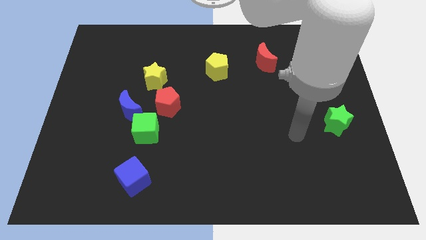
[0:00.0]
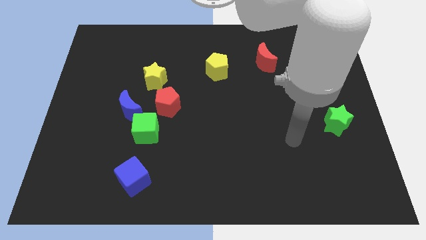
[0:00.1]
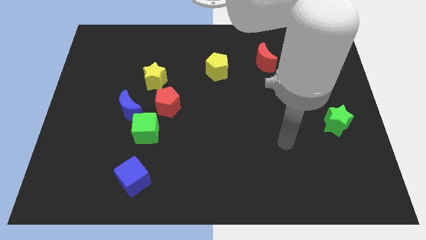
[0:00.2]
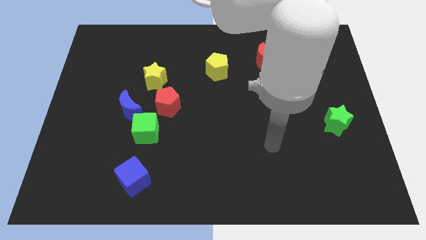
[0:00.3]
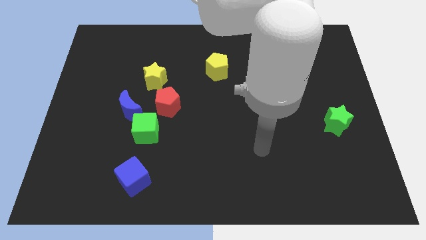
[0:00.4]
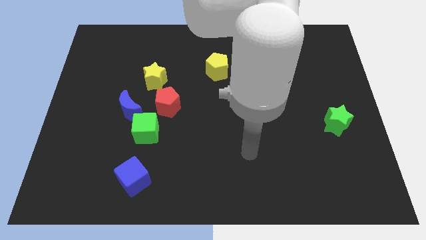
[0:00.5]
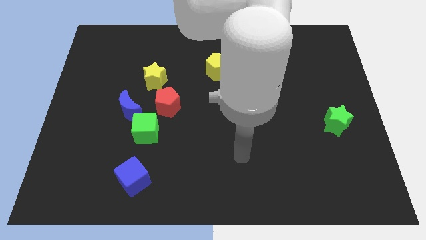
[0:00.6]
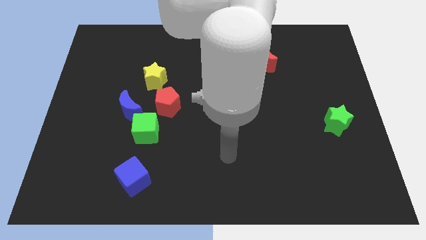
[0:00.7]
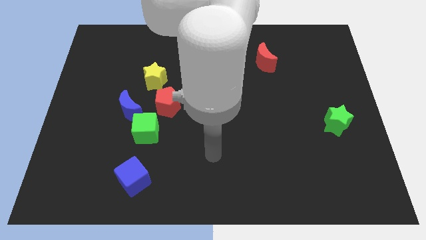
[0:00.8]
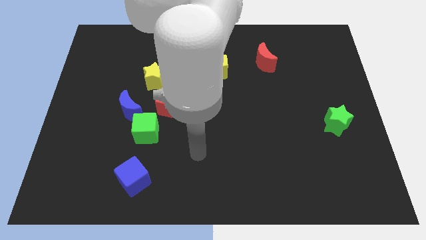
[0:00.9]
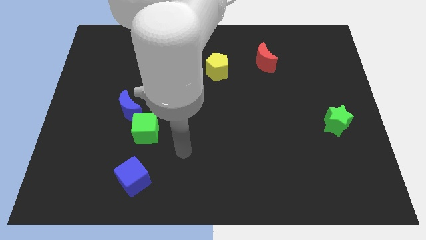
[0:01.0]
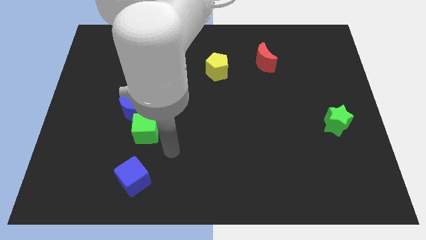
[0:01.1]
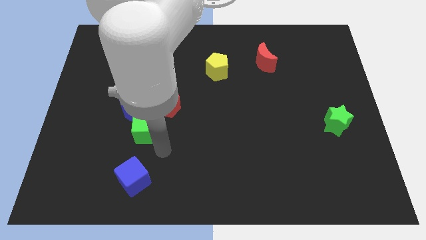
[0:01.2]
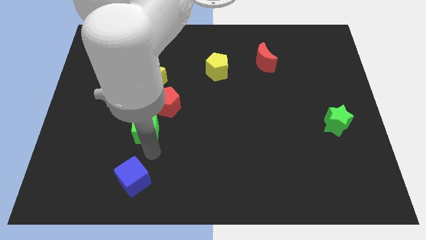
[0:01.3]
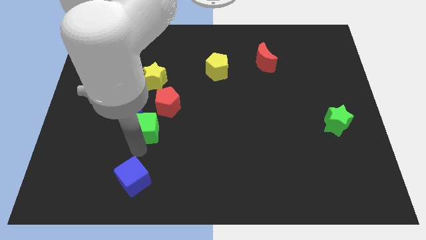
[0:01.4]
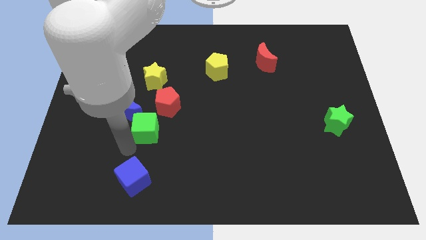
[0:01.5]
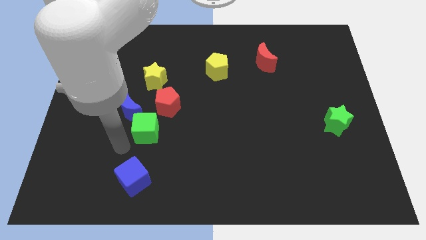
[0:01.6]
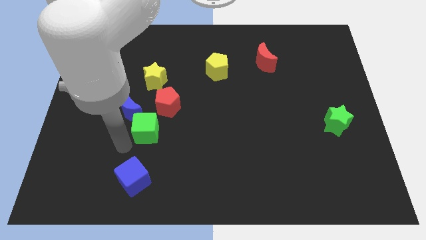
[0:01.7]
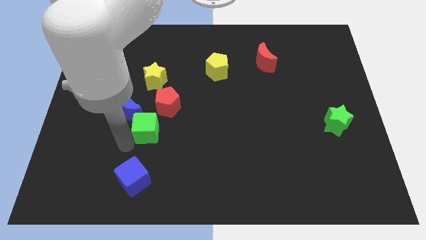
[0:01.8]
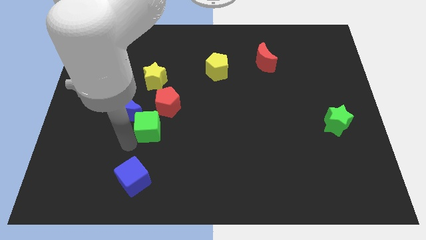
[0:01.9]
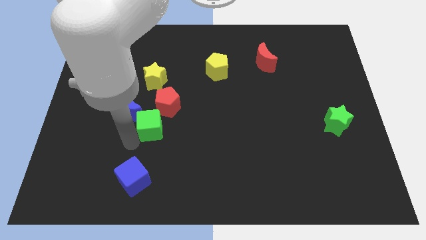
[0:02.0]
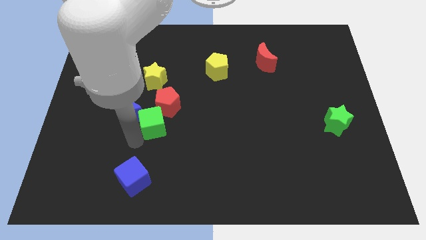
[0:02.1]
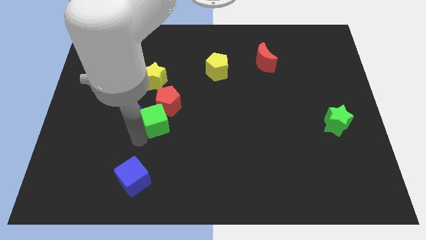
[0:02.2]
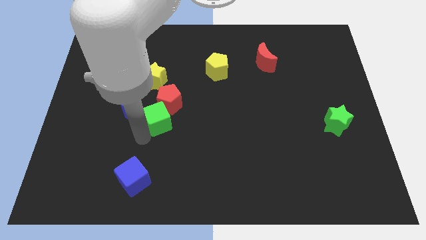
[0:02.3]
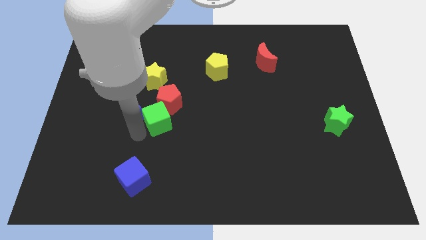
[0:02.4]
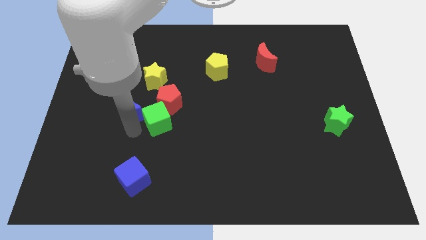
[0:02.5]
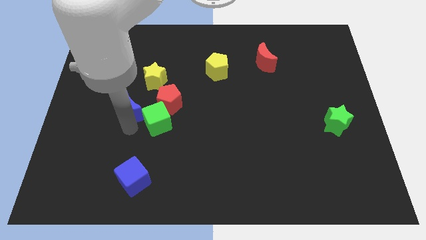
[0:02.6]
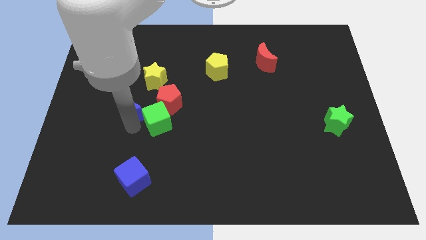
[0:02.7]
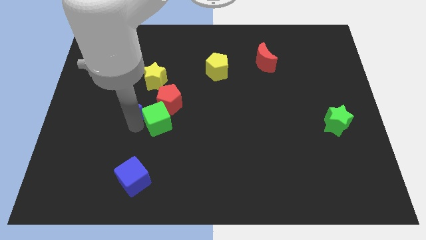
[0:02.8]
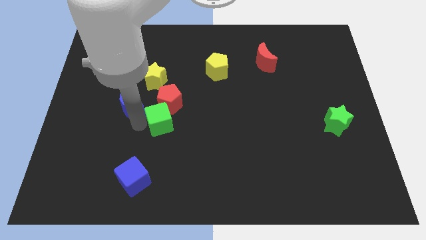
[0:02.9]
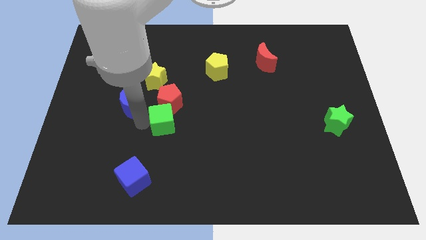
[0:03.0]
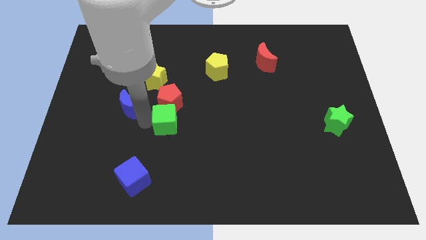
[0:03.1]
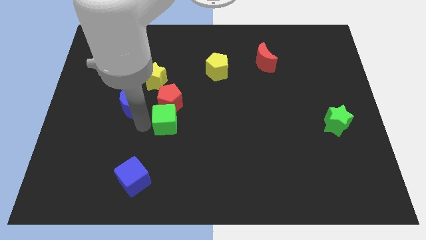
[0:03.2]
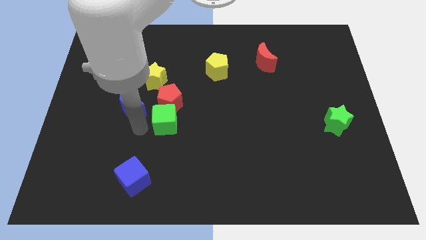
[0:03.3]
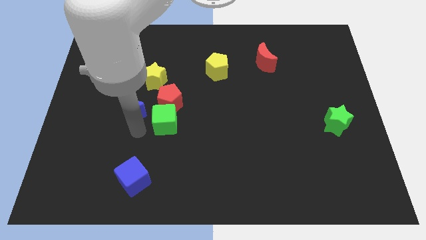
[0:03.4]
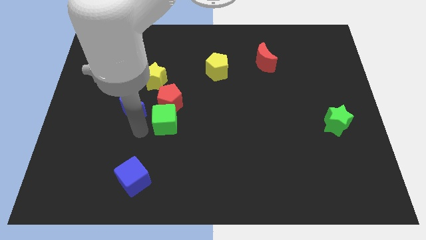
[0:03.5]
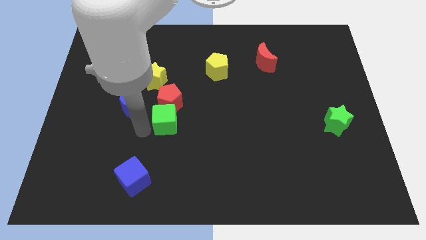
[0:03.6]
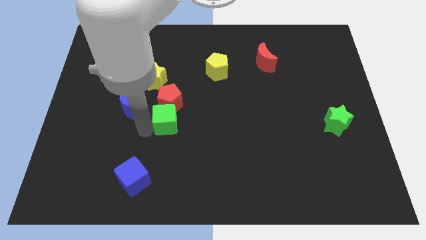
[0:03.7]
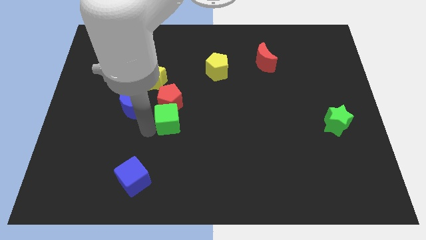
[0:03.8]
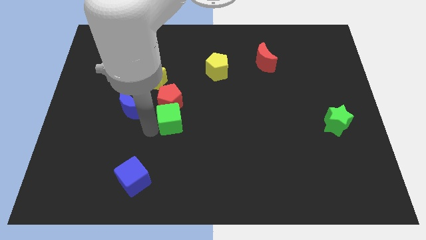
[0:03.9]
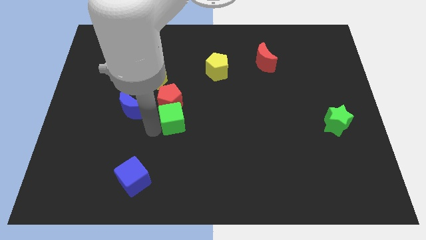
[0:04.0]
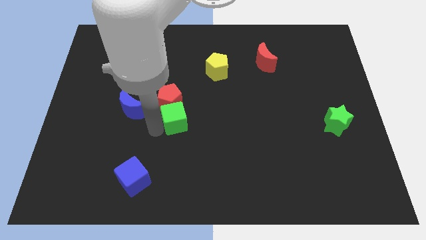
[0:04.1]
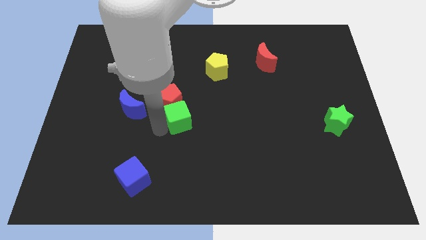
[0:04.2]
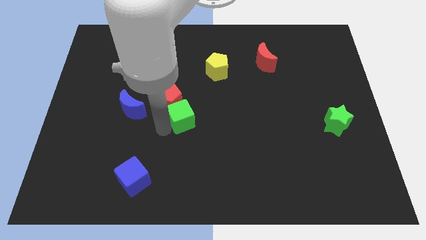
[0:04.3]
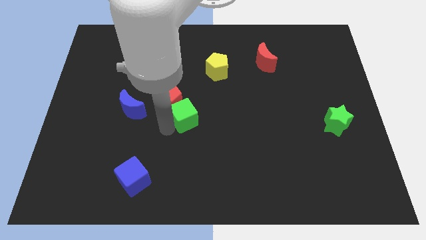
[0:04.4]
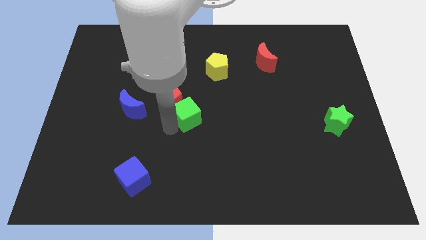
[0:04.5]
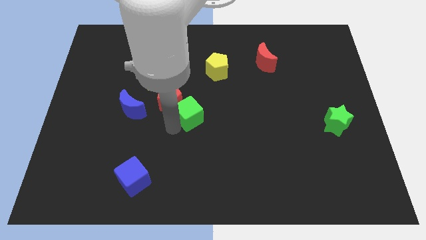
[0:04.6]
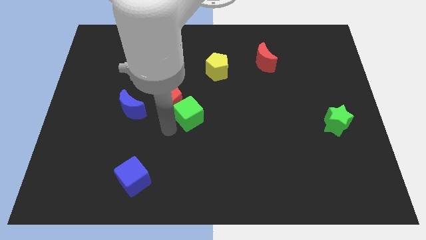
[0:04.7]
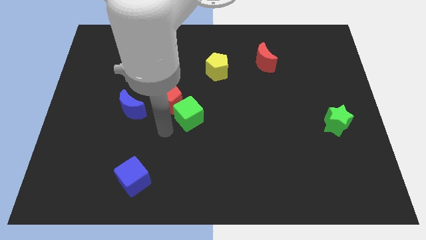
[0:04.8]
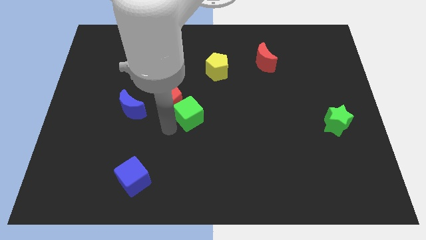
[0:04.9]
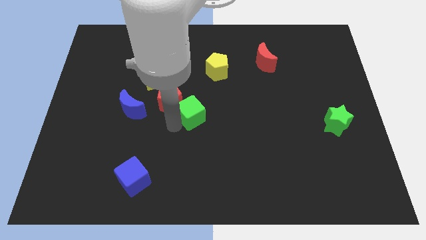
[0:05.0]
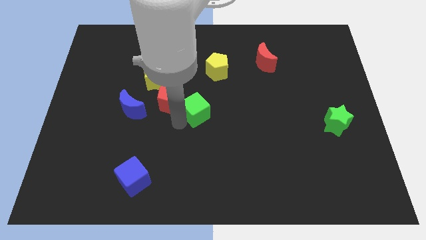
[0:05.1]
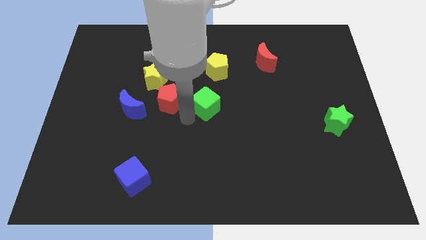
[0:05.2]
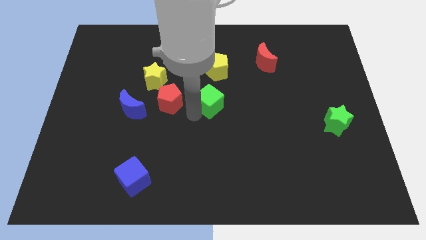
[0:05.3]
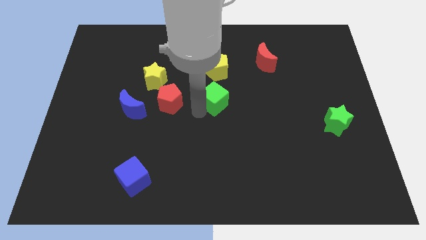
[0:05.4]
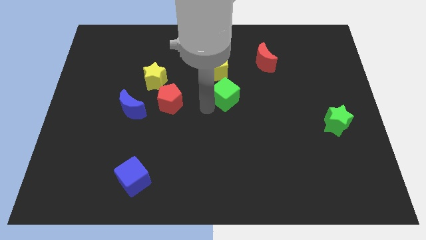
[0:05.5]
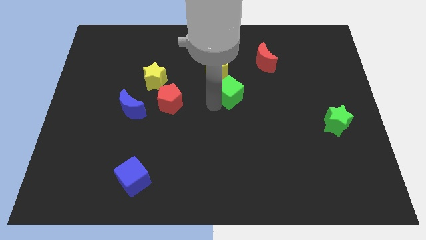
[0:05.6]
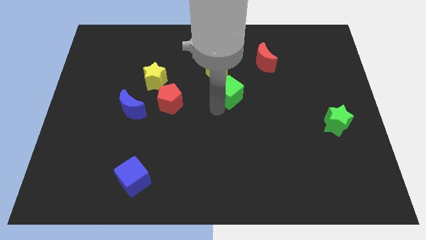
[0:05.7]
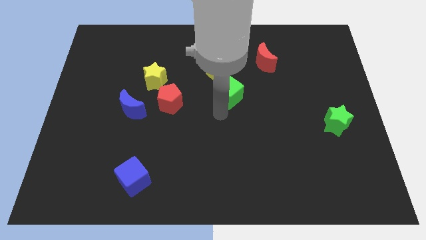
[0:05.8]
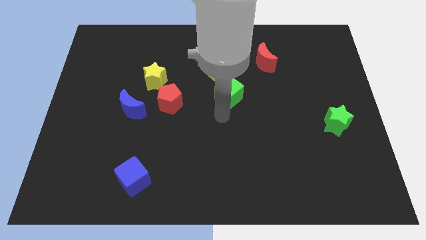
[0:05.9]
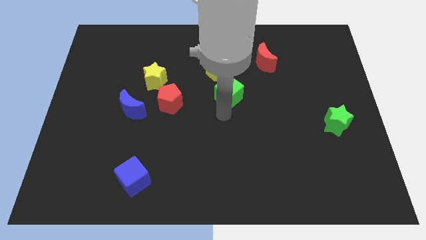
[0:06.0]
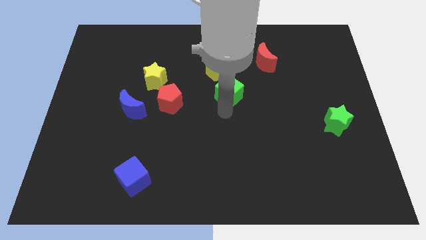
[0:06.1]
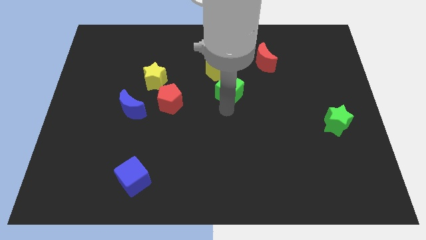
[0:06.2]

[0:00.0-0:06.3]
slide the green cube up and right

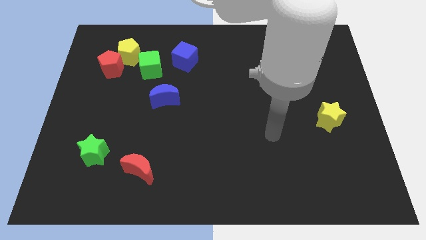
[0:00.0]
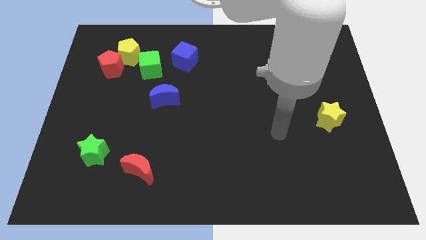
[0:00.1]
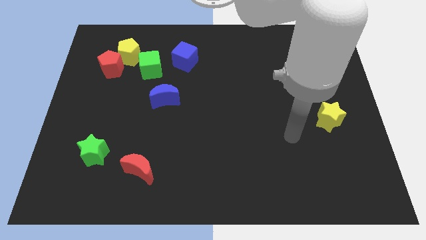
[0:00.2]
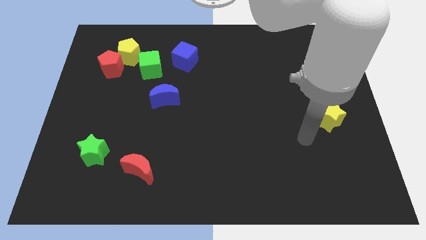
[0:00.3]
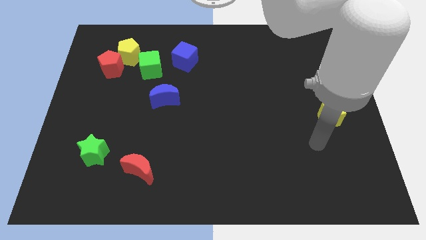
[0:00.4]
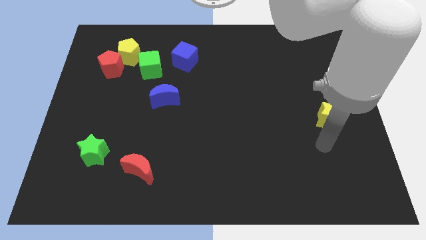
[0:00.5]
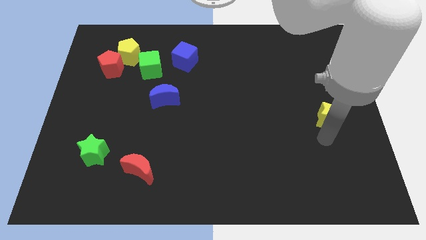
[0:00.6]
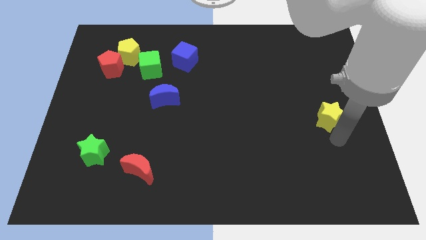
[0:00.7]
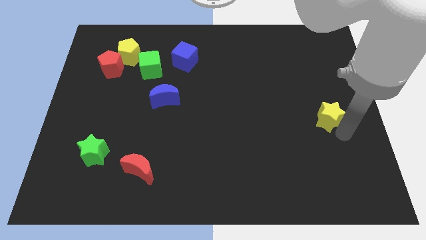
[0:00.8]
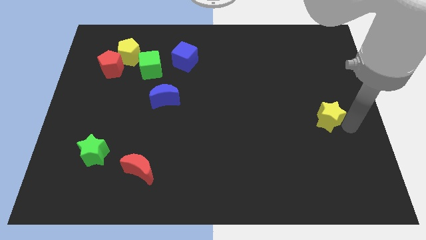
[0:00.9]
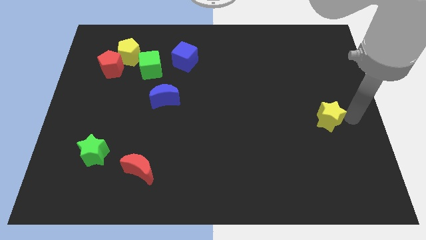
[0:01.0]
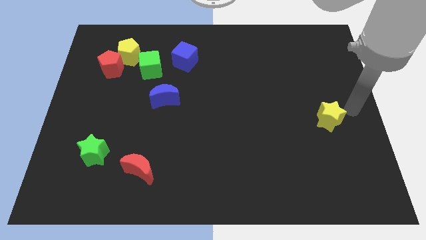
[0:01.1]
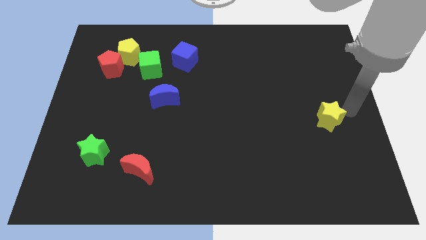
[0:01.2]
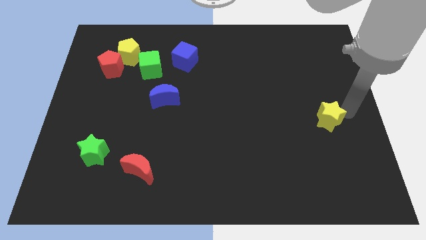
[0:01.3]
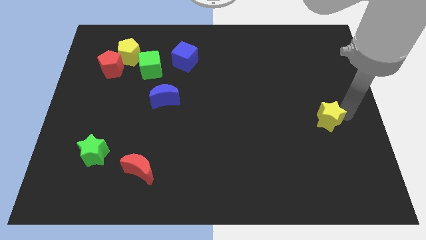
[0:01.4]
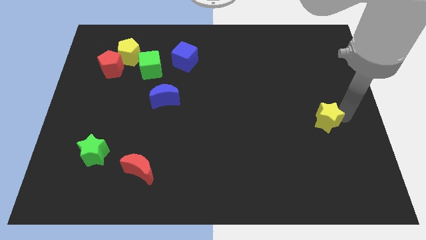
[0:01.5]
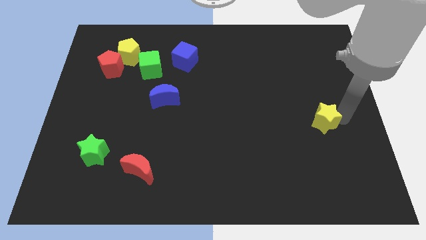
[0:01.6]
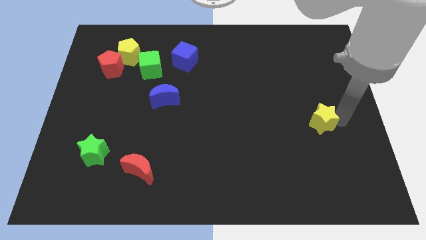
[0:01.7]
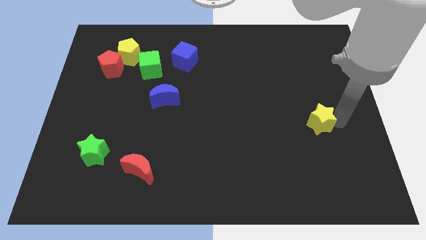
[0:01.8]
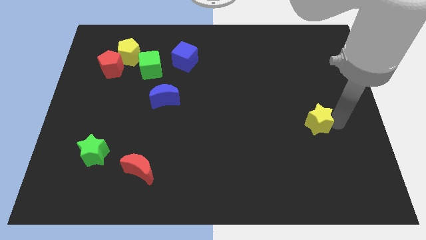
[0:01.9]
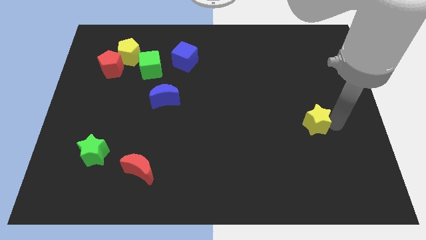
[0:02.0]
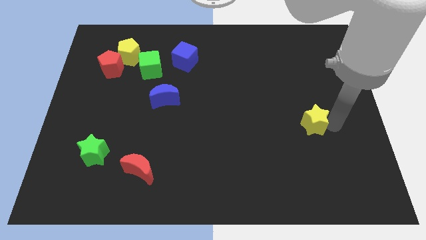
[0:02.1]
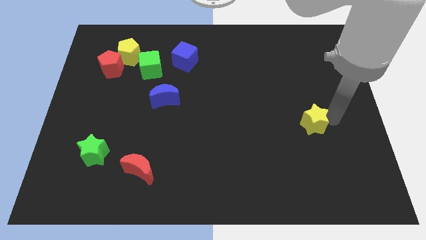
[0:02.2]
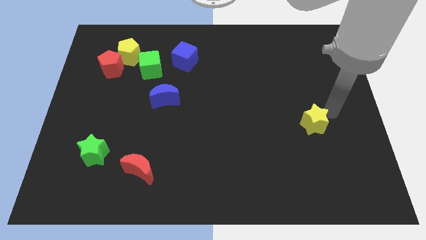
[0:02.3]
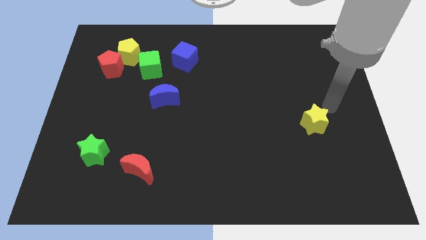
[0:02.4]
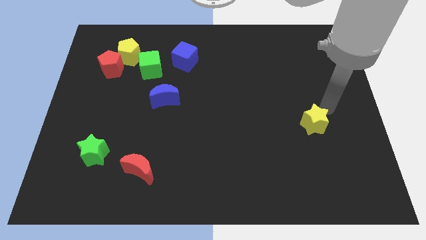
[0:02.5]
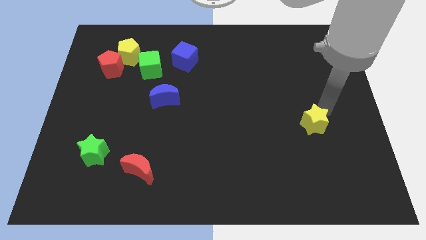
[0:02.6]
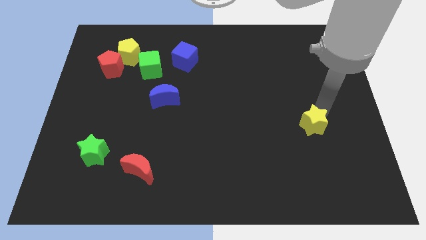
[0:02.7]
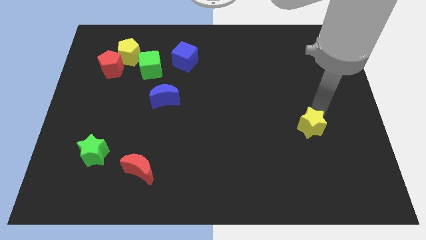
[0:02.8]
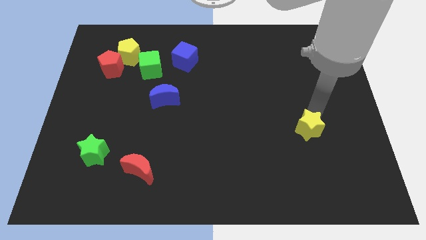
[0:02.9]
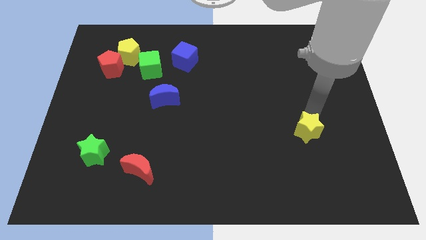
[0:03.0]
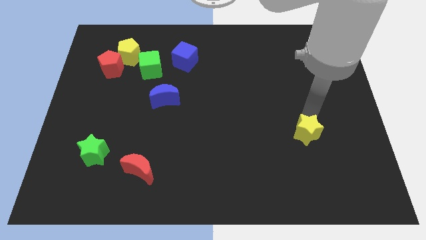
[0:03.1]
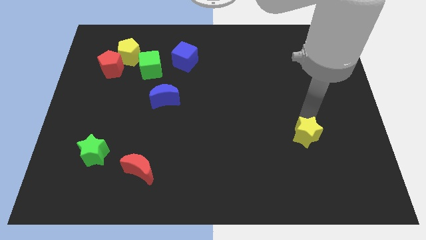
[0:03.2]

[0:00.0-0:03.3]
slightly push the yellow star downwards and left
